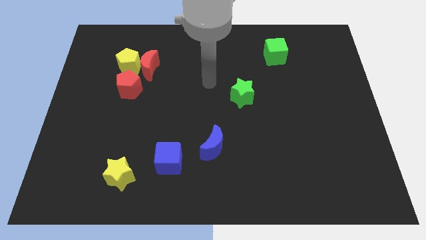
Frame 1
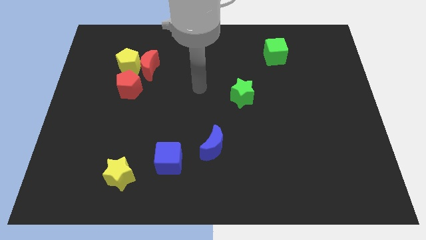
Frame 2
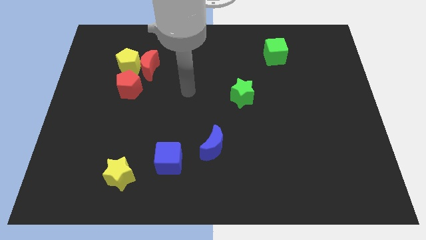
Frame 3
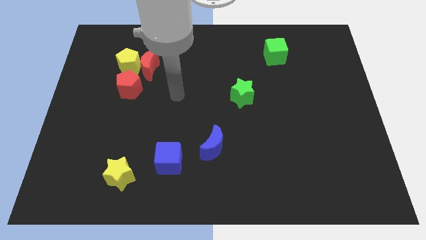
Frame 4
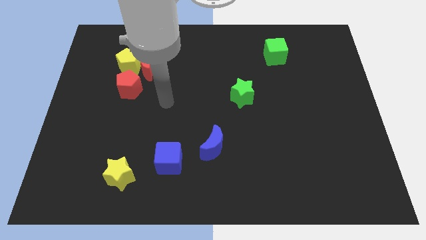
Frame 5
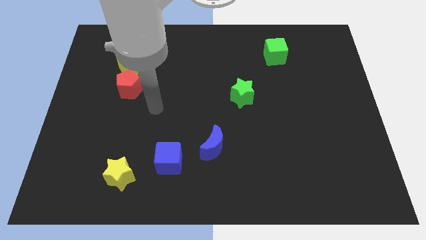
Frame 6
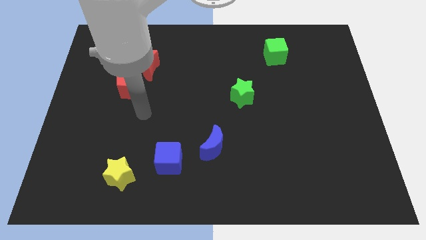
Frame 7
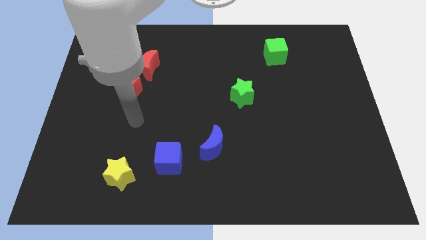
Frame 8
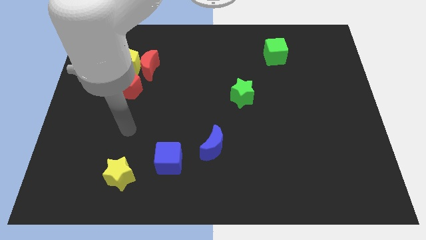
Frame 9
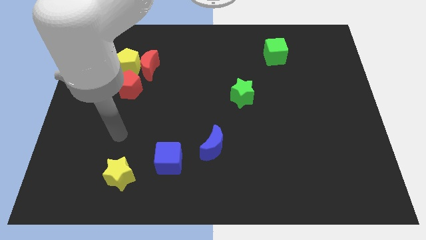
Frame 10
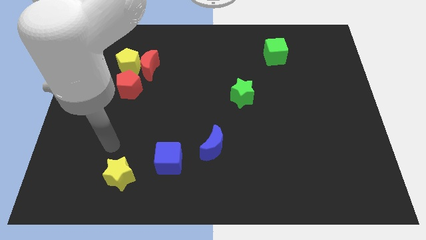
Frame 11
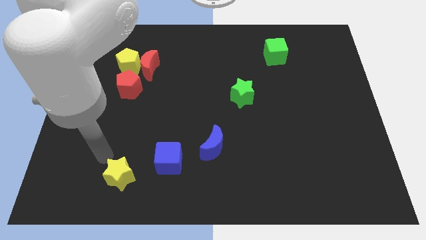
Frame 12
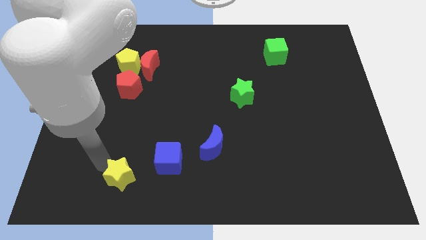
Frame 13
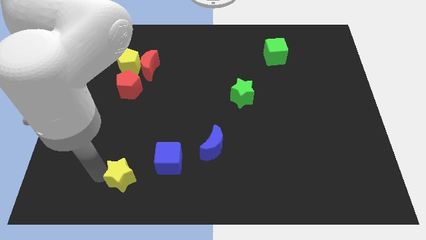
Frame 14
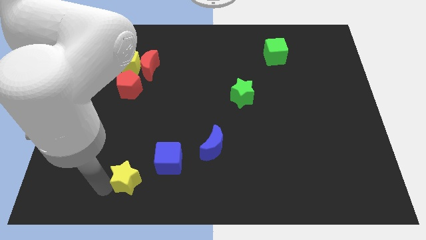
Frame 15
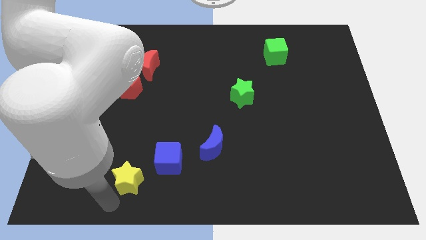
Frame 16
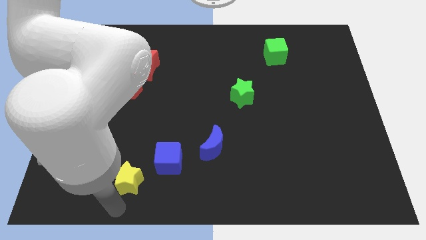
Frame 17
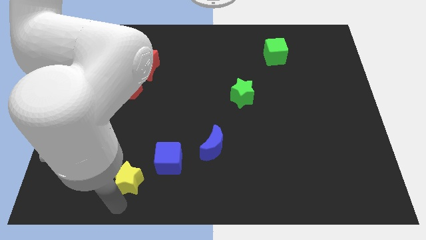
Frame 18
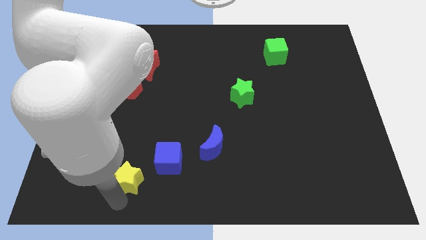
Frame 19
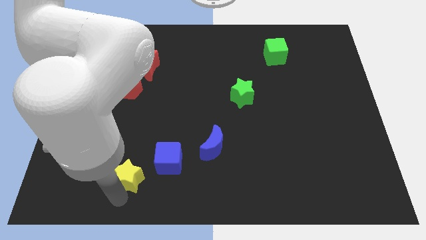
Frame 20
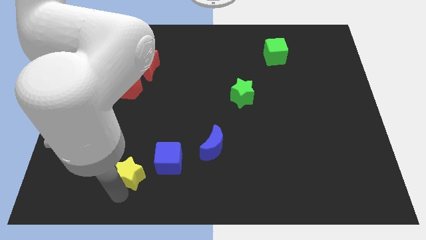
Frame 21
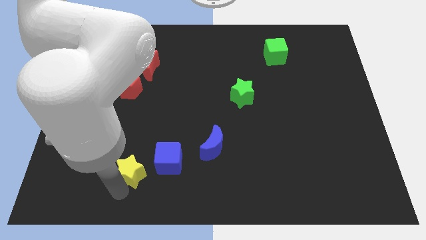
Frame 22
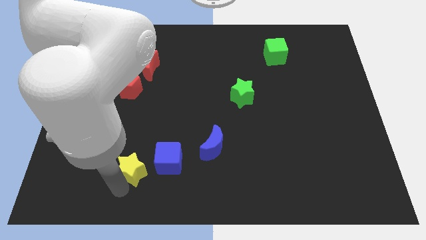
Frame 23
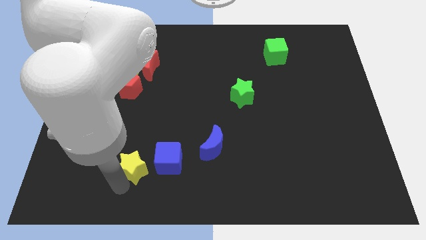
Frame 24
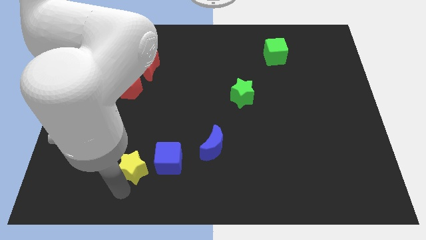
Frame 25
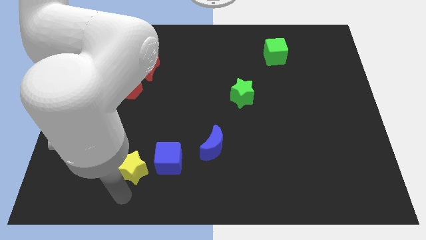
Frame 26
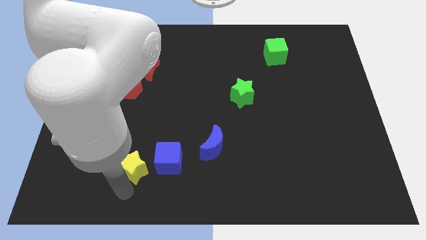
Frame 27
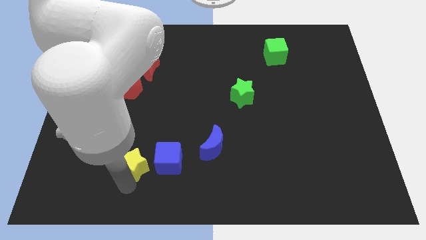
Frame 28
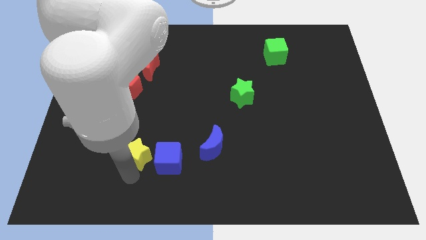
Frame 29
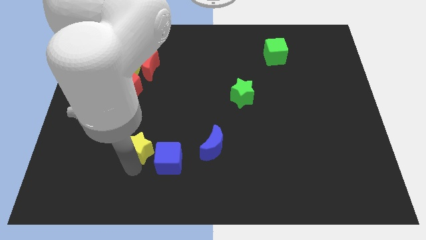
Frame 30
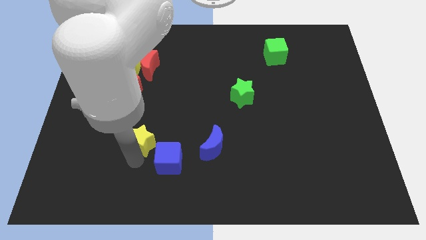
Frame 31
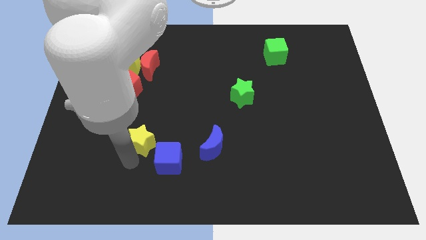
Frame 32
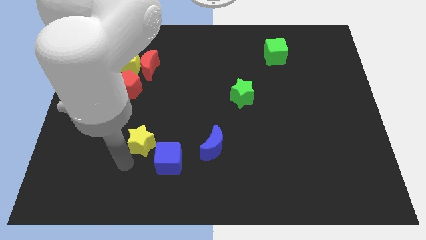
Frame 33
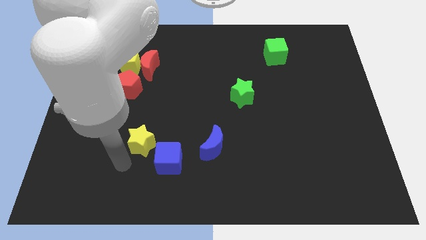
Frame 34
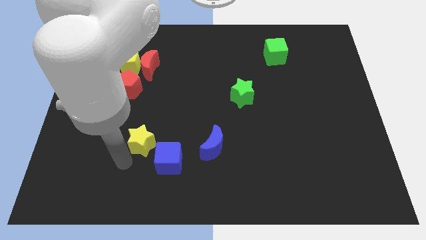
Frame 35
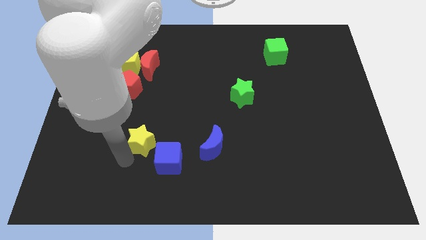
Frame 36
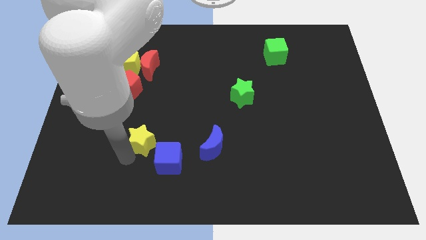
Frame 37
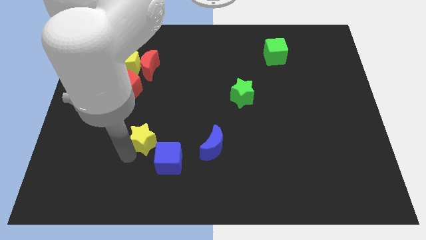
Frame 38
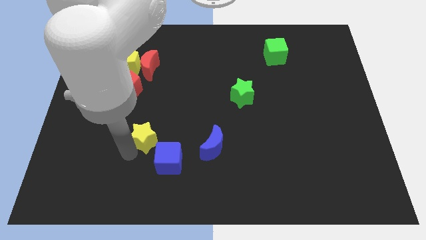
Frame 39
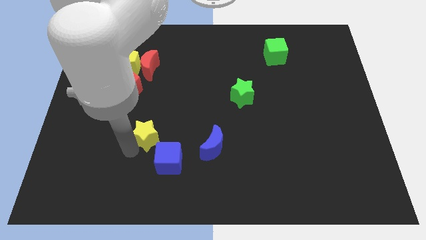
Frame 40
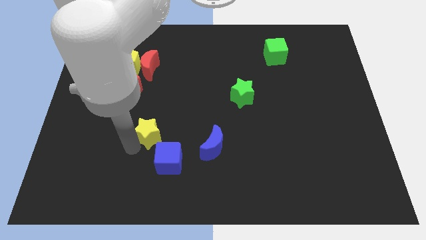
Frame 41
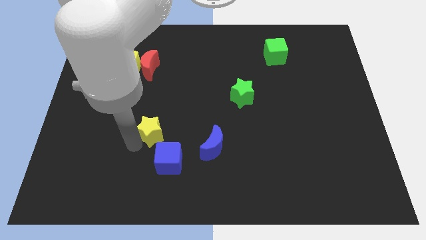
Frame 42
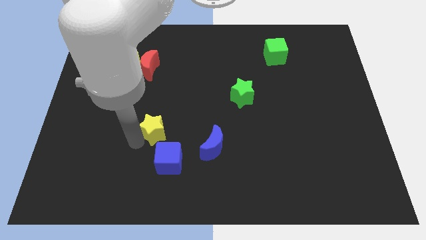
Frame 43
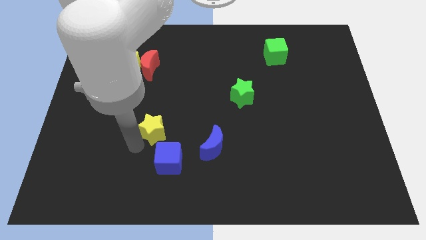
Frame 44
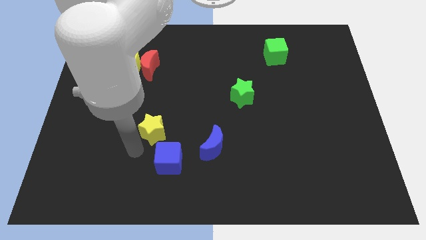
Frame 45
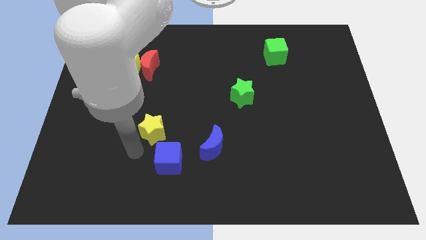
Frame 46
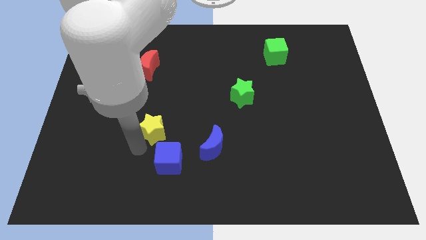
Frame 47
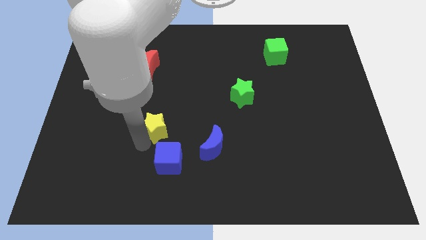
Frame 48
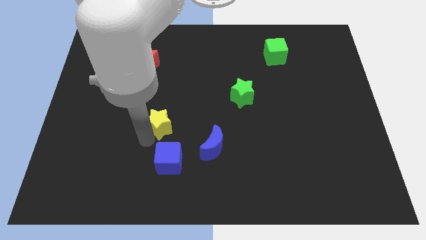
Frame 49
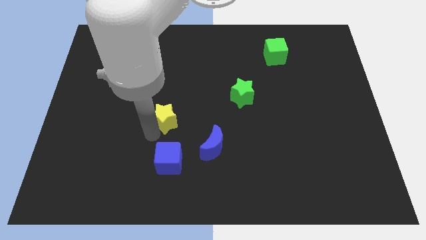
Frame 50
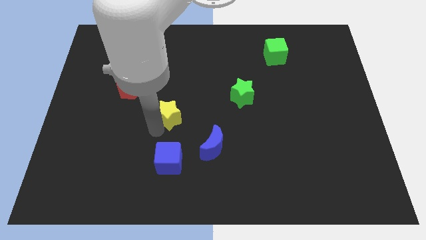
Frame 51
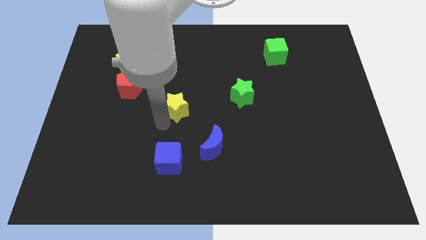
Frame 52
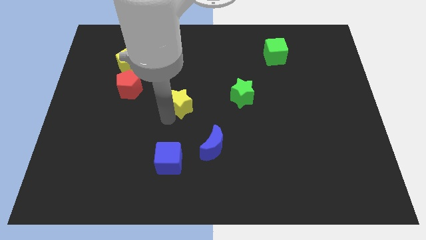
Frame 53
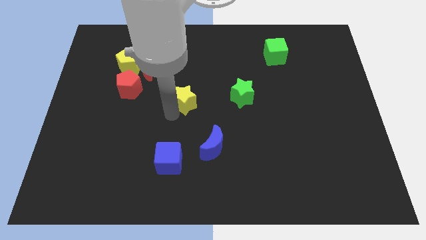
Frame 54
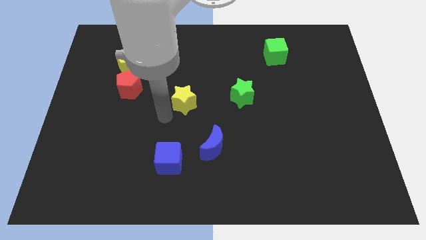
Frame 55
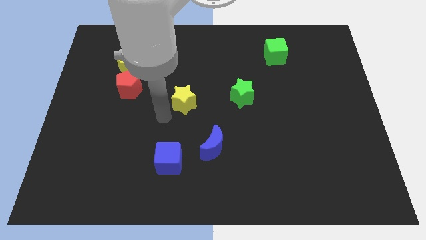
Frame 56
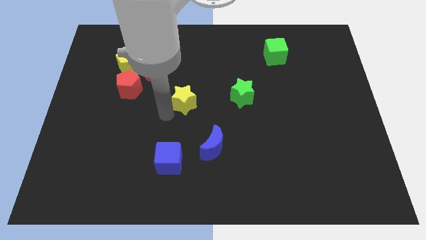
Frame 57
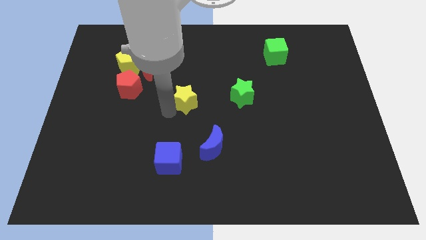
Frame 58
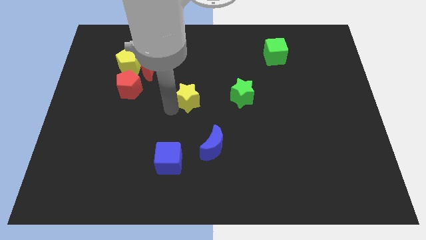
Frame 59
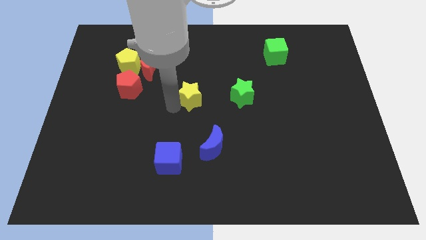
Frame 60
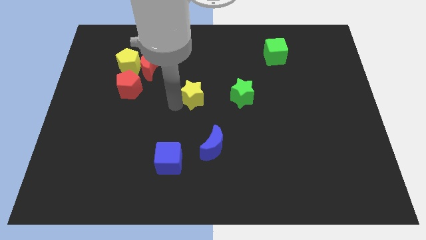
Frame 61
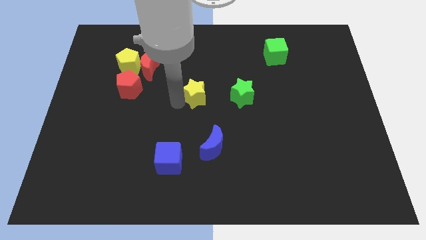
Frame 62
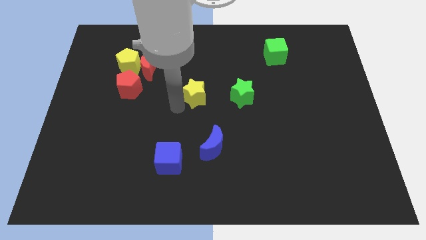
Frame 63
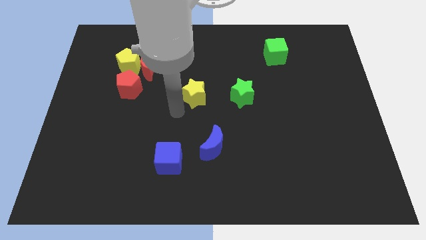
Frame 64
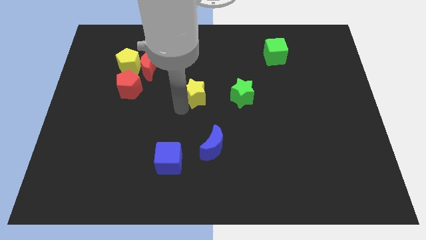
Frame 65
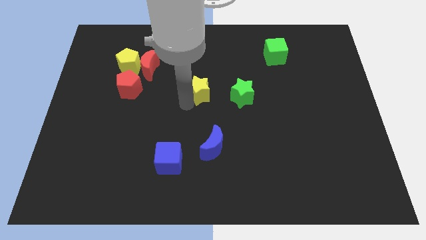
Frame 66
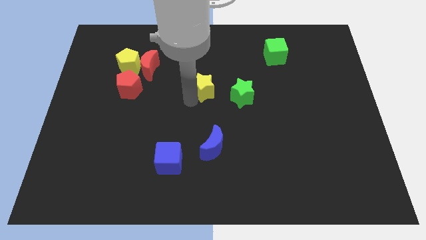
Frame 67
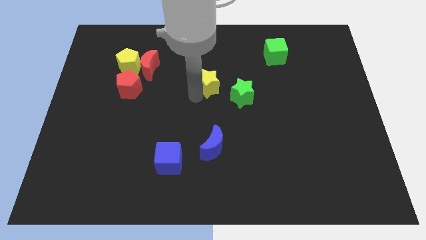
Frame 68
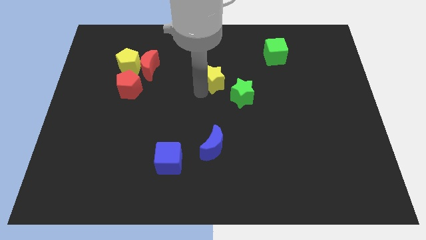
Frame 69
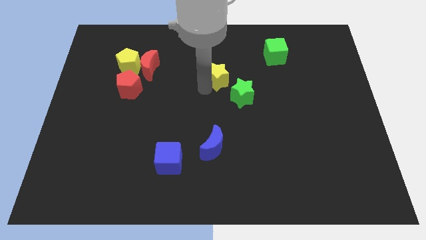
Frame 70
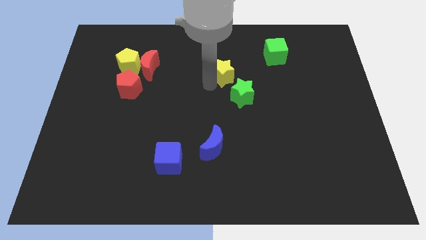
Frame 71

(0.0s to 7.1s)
push the yellow star to the top of the green star

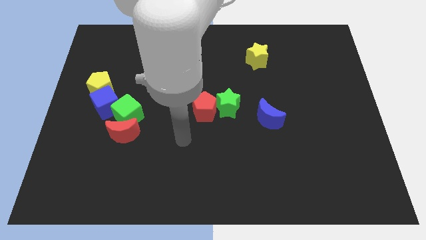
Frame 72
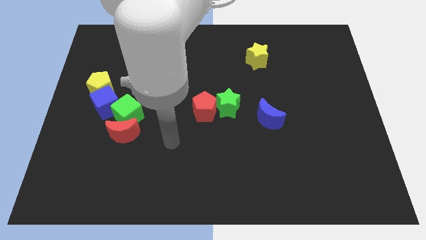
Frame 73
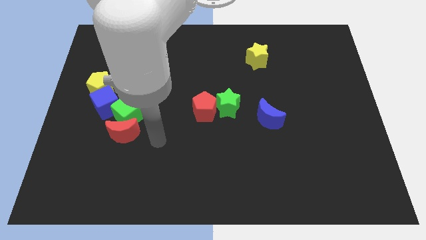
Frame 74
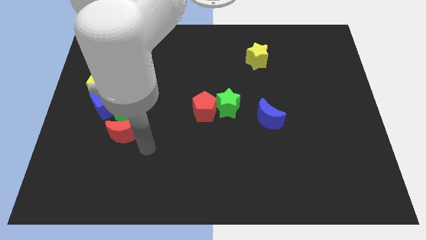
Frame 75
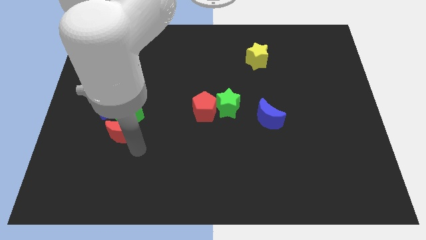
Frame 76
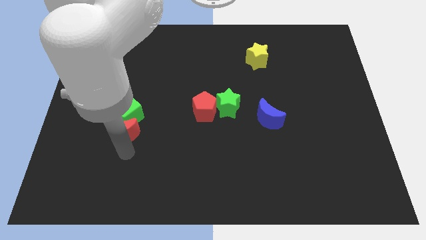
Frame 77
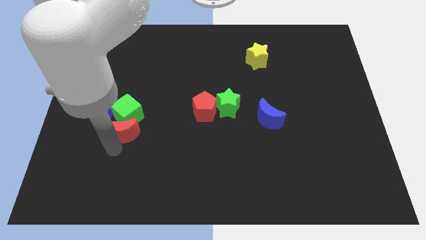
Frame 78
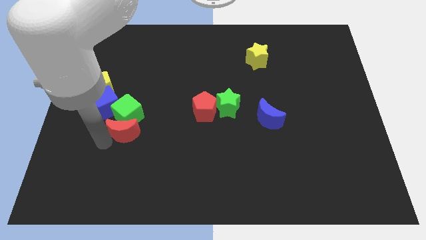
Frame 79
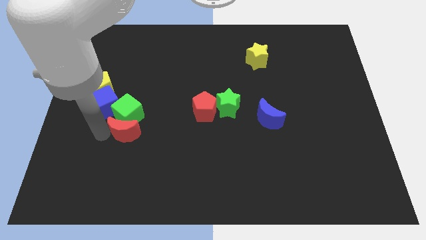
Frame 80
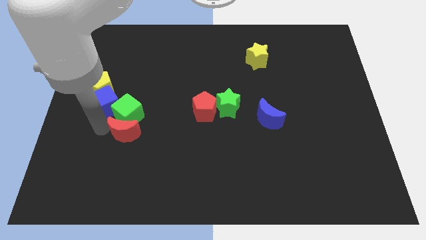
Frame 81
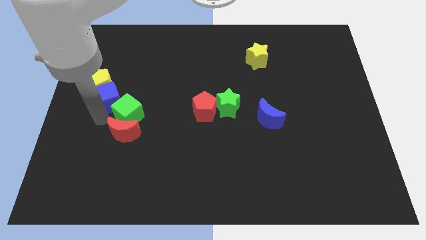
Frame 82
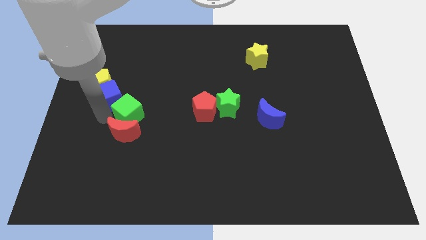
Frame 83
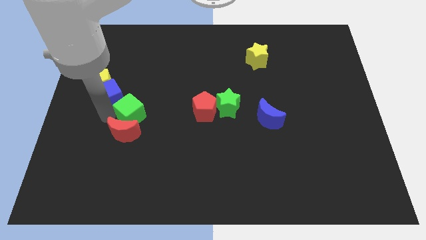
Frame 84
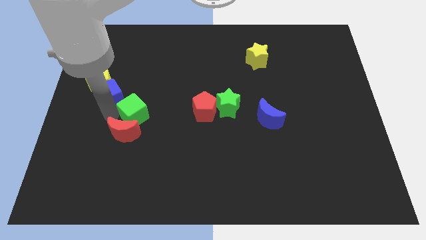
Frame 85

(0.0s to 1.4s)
move the green cube to the left side of the red pentagon
